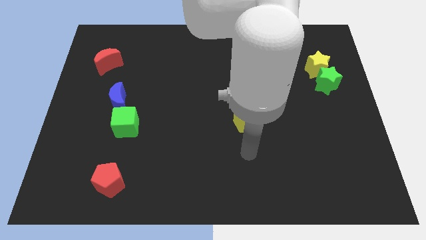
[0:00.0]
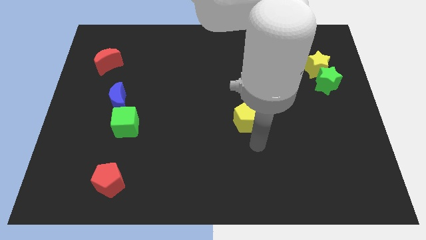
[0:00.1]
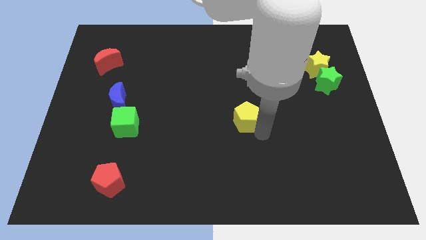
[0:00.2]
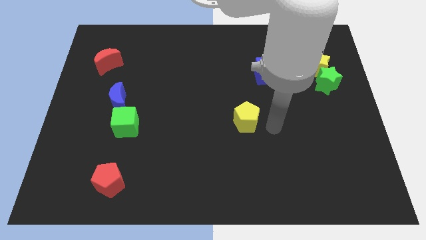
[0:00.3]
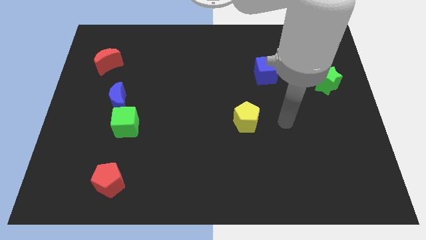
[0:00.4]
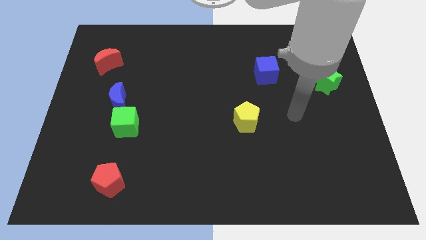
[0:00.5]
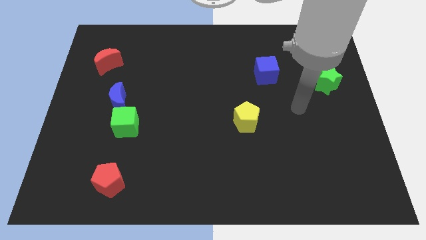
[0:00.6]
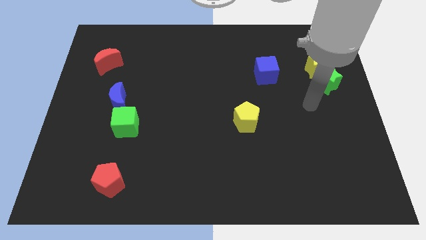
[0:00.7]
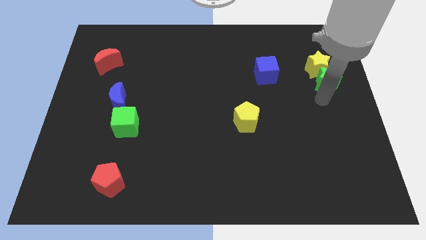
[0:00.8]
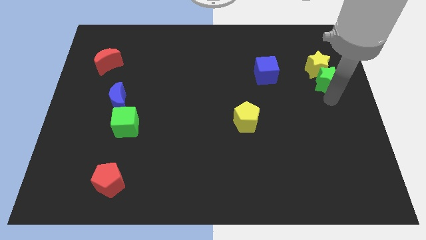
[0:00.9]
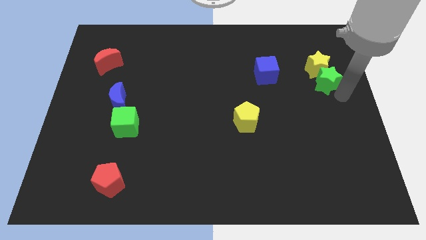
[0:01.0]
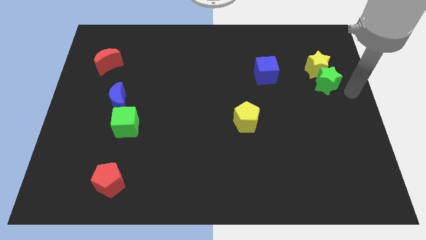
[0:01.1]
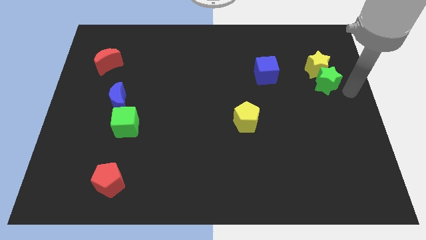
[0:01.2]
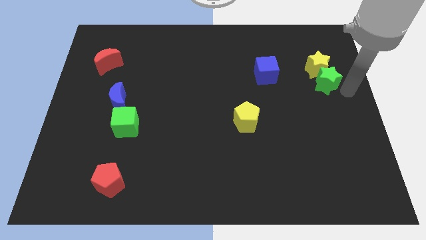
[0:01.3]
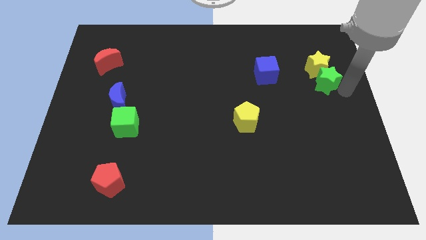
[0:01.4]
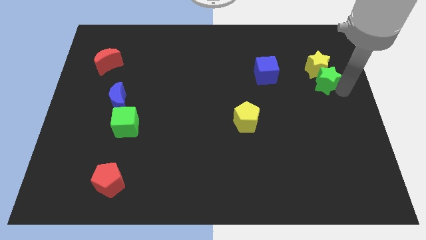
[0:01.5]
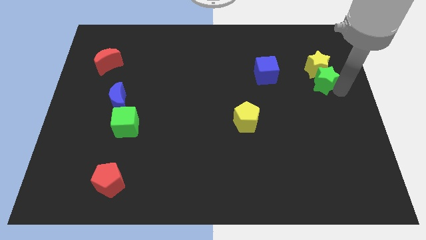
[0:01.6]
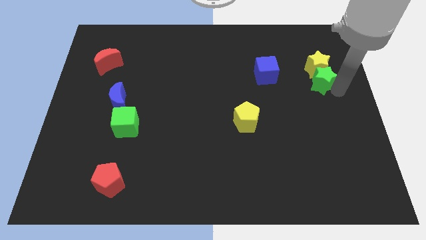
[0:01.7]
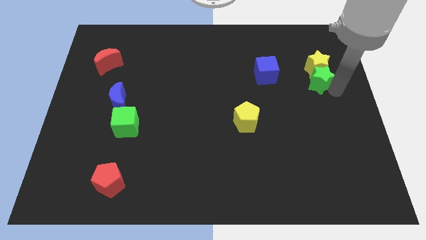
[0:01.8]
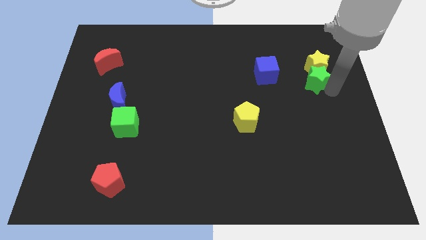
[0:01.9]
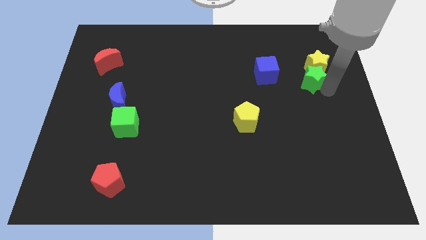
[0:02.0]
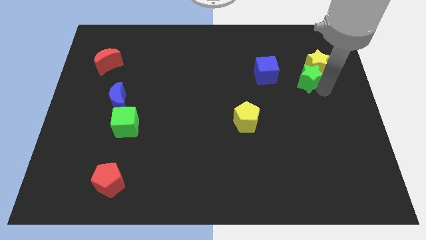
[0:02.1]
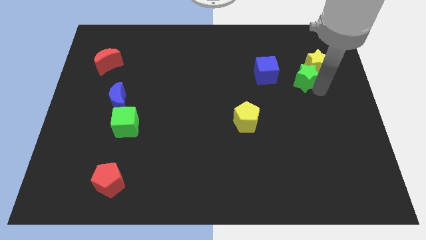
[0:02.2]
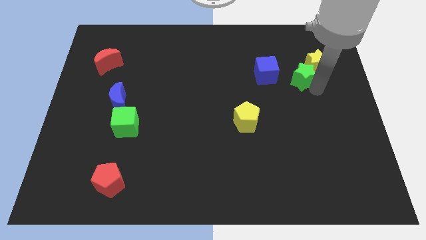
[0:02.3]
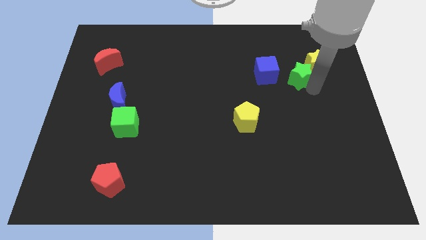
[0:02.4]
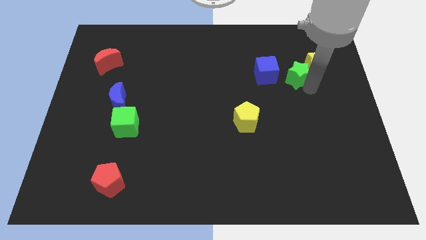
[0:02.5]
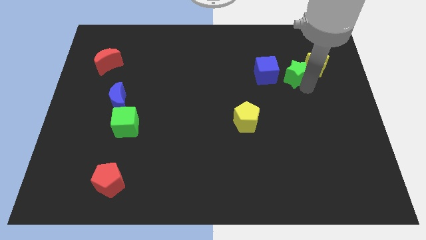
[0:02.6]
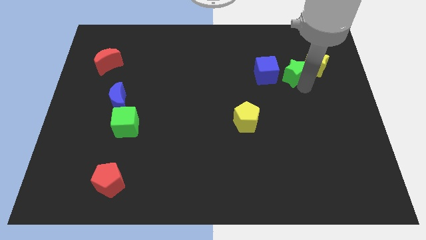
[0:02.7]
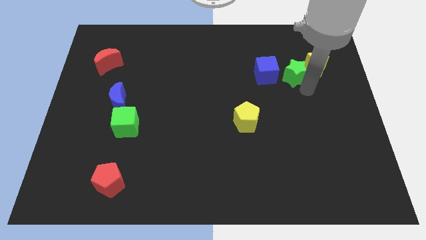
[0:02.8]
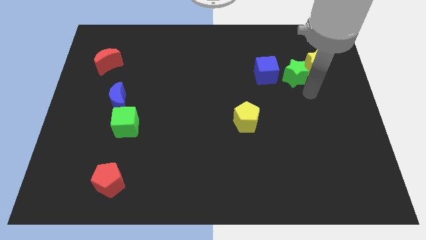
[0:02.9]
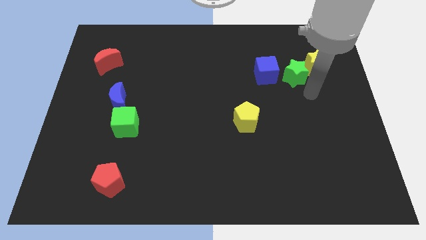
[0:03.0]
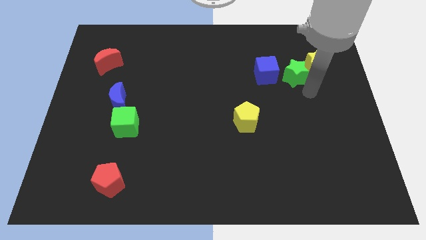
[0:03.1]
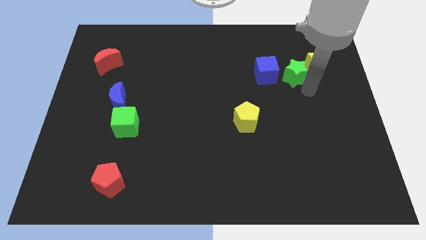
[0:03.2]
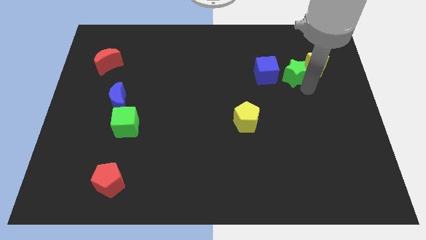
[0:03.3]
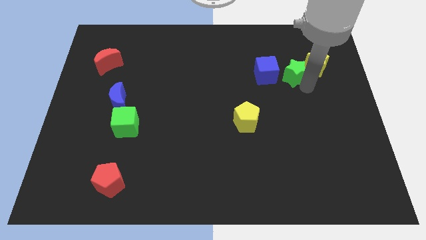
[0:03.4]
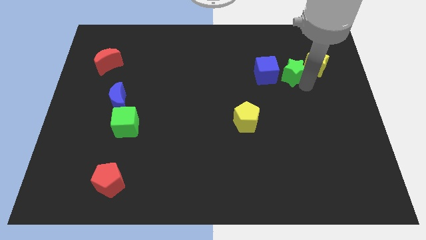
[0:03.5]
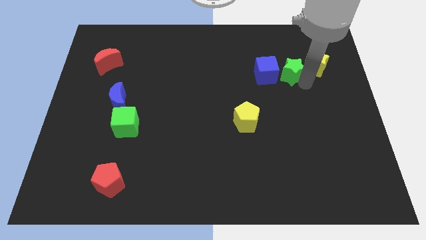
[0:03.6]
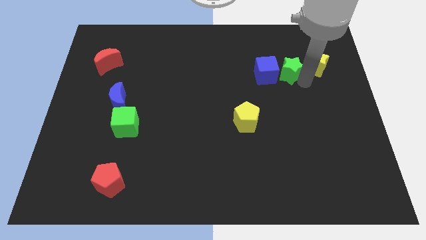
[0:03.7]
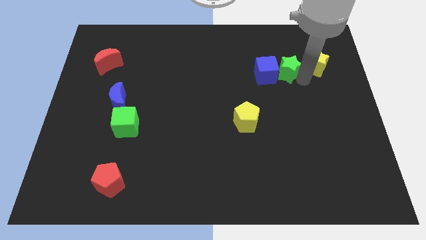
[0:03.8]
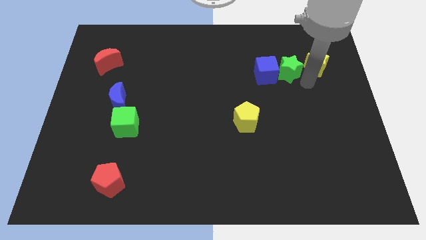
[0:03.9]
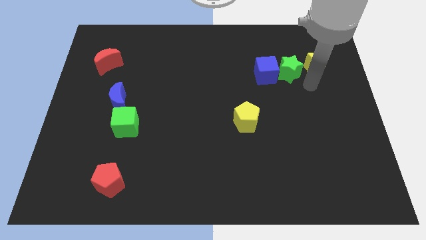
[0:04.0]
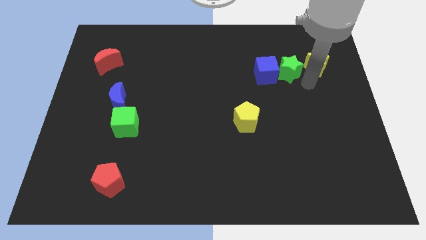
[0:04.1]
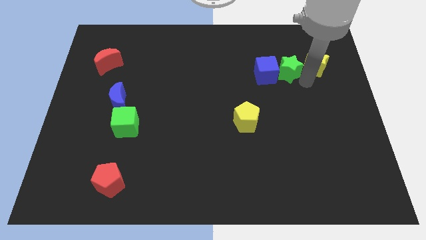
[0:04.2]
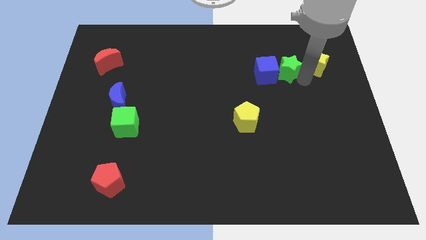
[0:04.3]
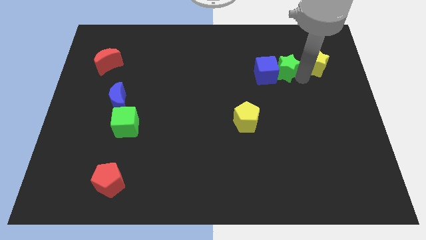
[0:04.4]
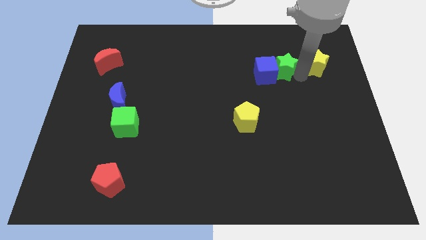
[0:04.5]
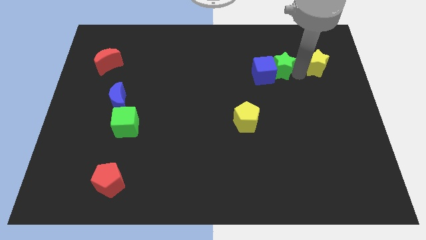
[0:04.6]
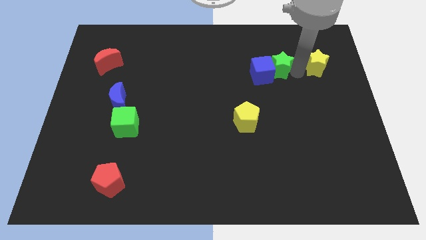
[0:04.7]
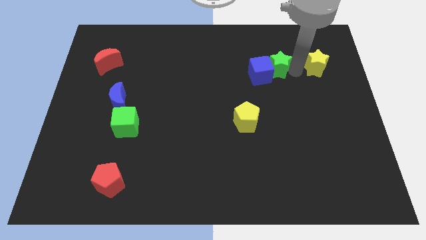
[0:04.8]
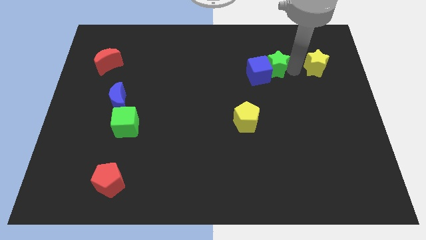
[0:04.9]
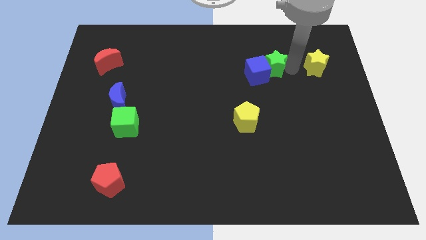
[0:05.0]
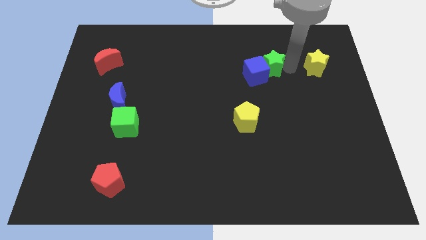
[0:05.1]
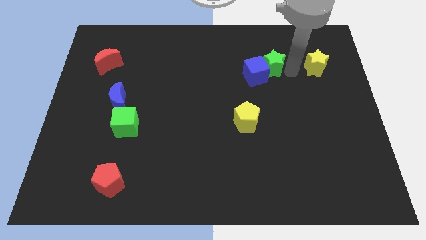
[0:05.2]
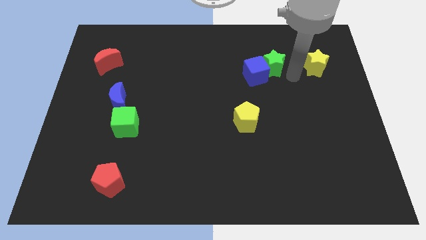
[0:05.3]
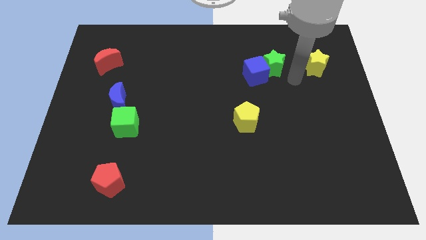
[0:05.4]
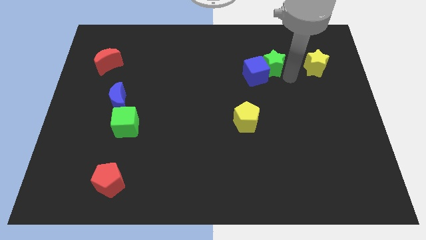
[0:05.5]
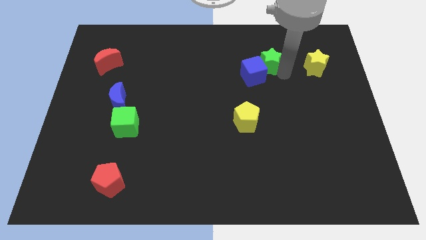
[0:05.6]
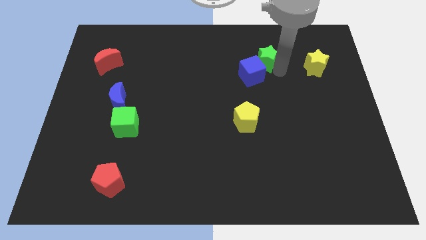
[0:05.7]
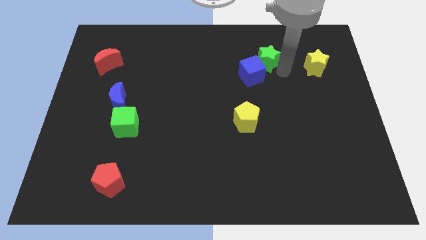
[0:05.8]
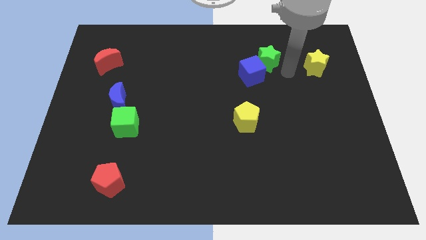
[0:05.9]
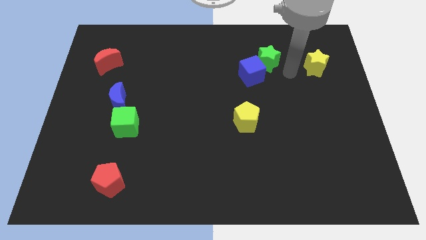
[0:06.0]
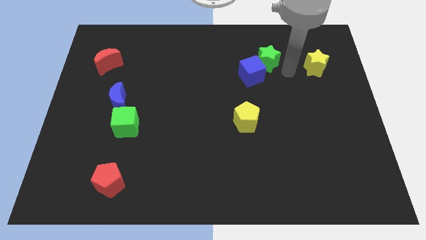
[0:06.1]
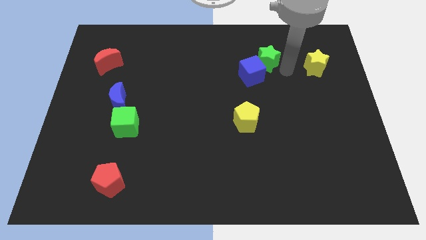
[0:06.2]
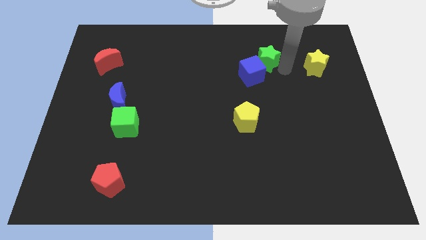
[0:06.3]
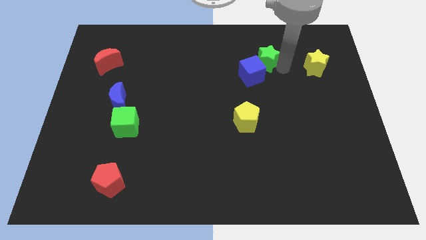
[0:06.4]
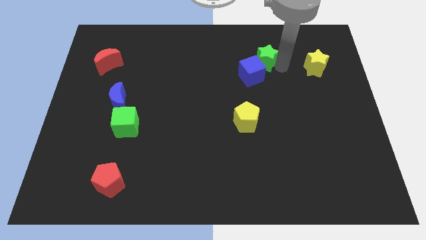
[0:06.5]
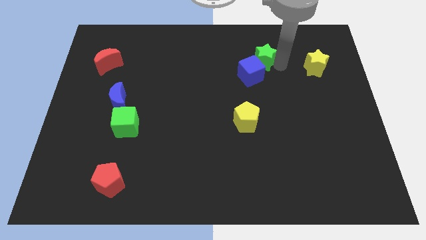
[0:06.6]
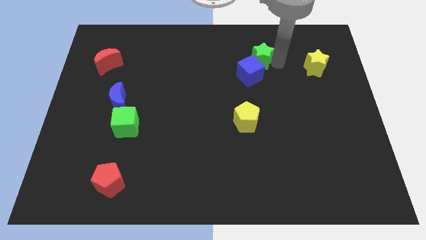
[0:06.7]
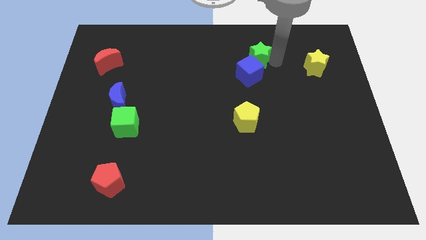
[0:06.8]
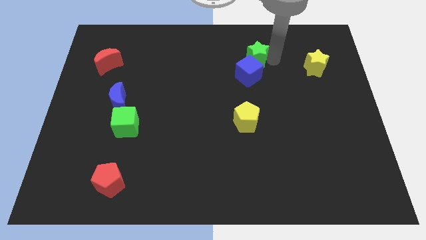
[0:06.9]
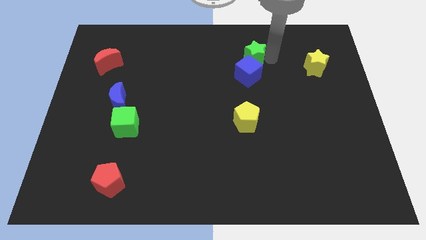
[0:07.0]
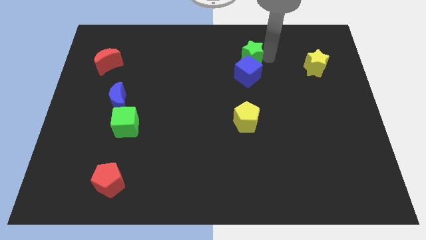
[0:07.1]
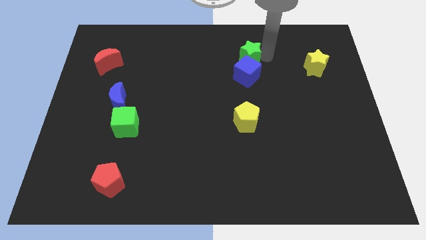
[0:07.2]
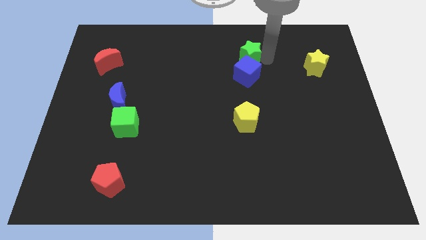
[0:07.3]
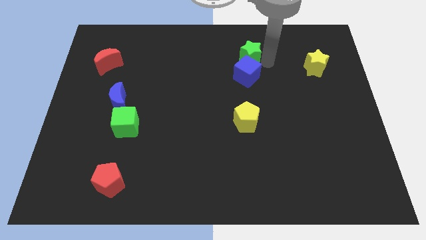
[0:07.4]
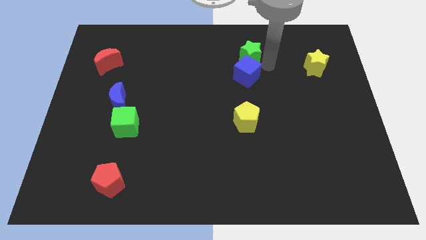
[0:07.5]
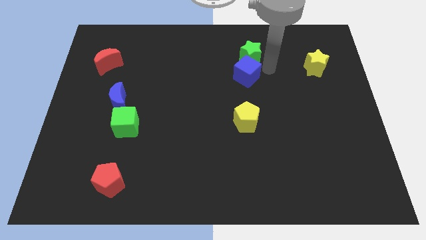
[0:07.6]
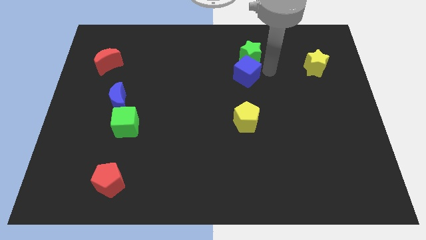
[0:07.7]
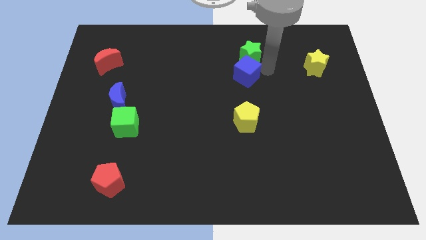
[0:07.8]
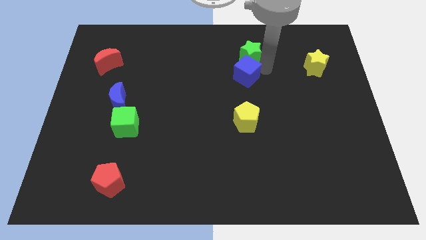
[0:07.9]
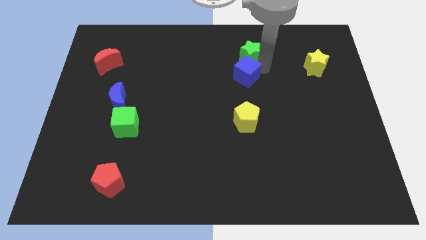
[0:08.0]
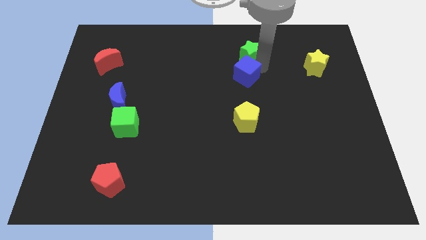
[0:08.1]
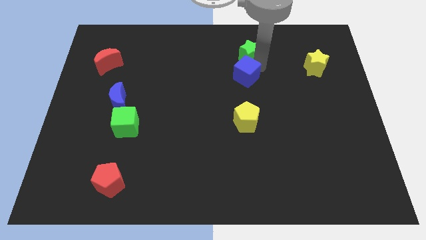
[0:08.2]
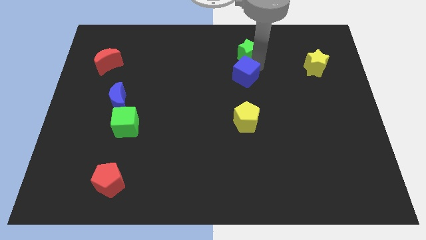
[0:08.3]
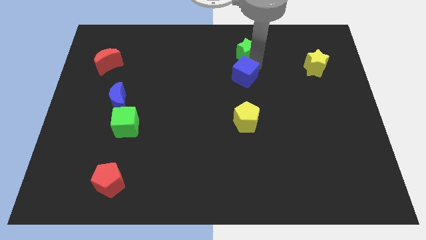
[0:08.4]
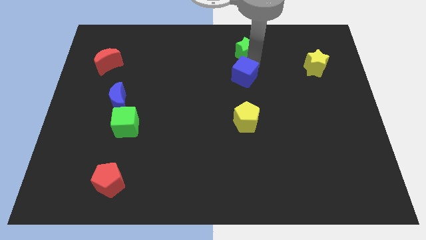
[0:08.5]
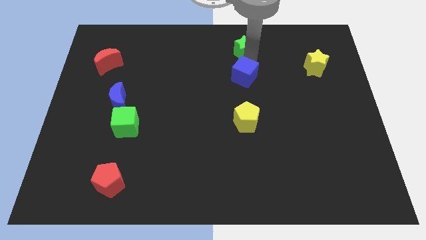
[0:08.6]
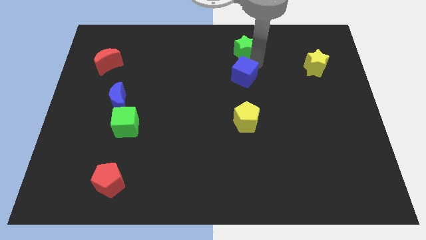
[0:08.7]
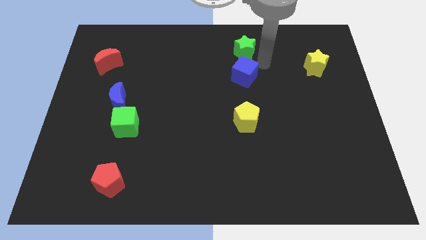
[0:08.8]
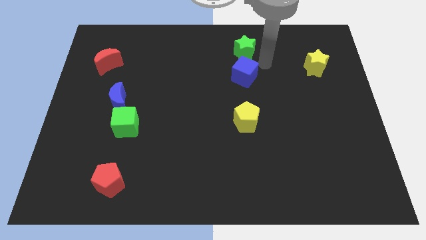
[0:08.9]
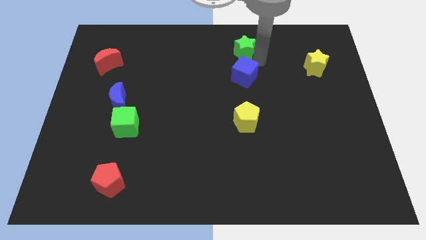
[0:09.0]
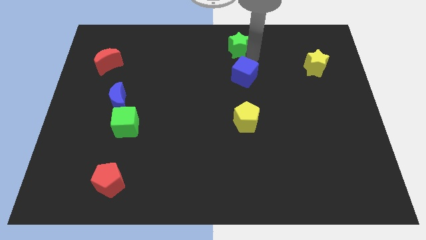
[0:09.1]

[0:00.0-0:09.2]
move the green star to the towards your base
